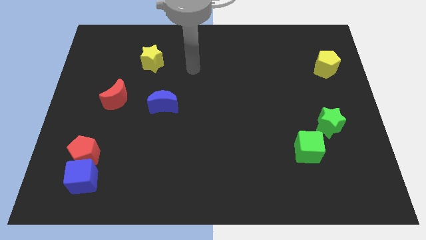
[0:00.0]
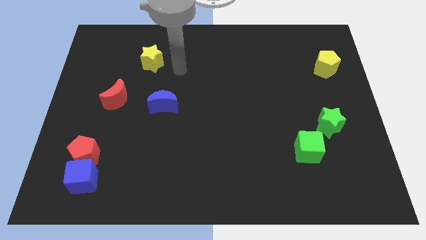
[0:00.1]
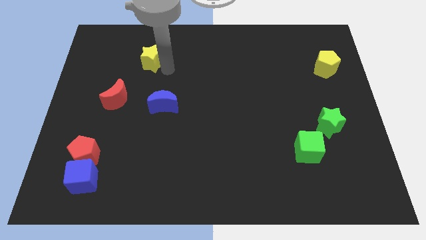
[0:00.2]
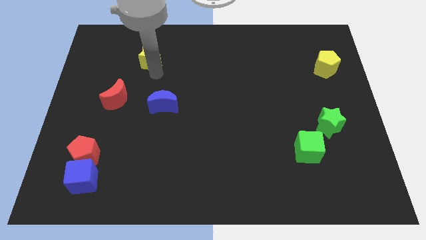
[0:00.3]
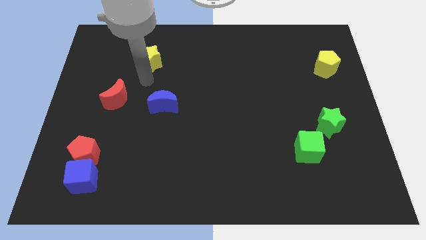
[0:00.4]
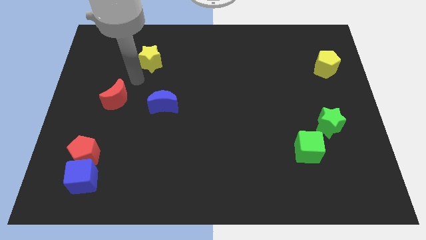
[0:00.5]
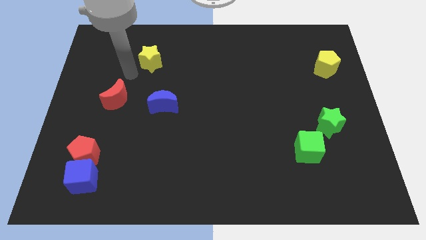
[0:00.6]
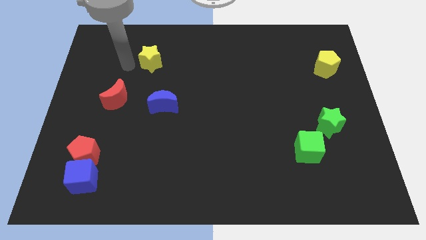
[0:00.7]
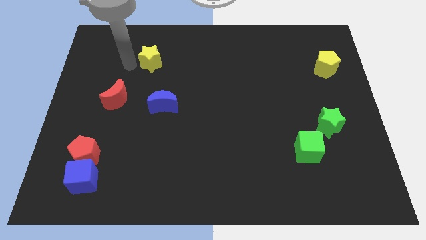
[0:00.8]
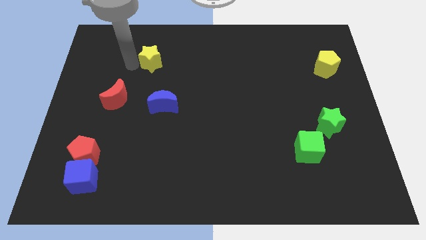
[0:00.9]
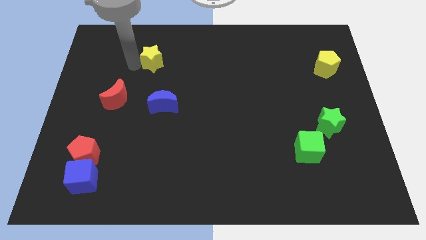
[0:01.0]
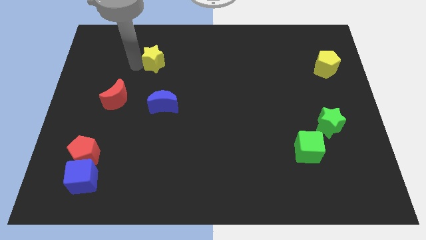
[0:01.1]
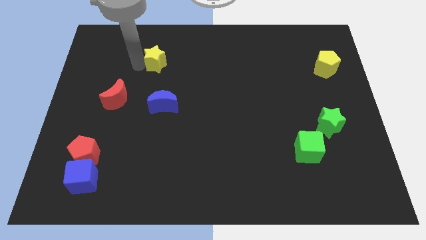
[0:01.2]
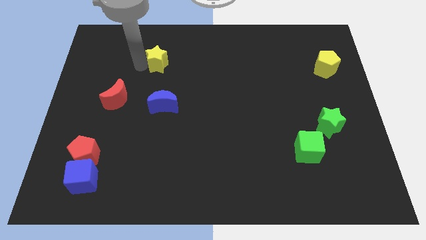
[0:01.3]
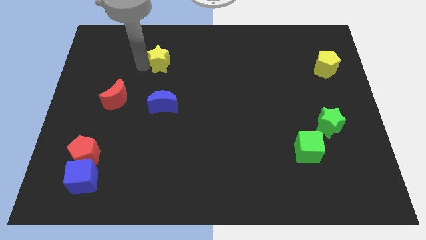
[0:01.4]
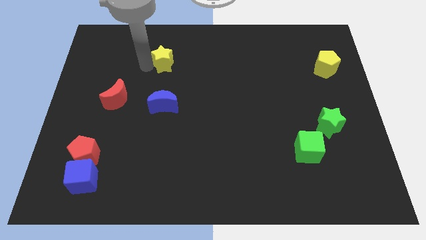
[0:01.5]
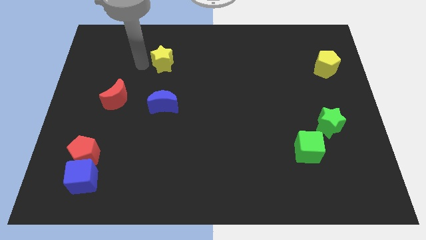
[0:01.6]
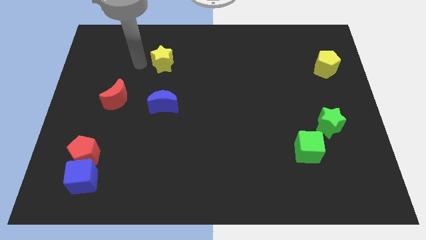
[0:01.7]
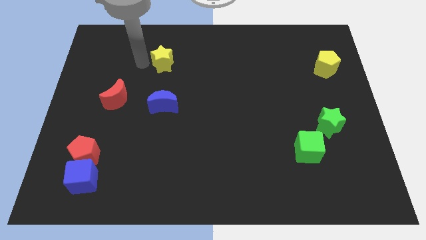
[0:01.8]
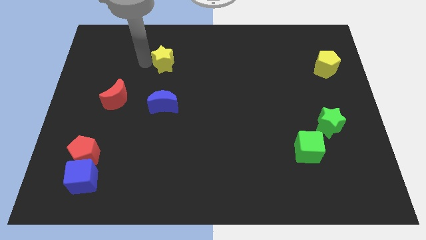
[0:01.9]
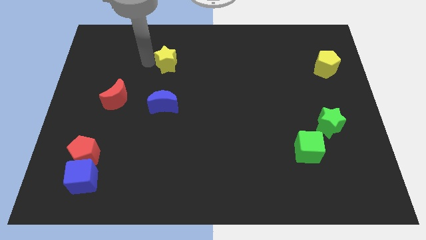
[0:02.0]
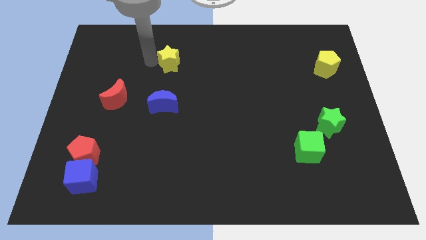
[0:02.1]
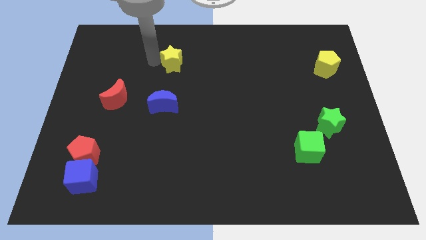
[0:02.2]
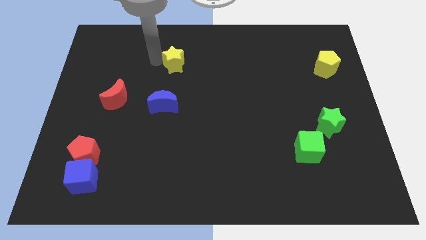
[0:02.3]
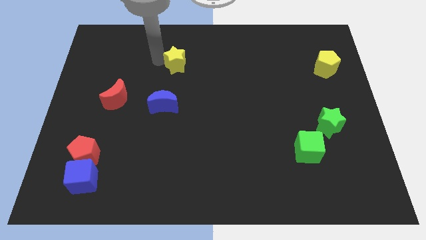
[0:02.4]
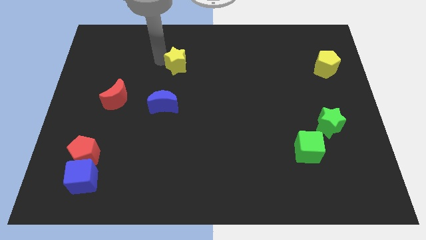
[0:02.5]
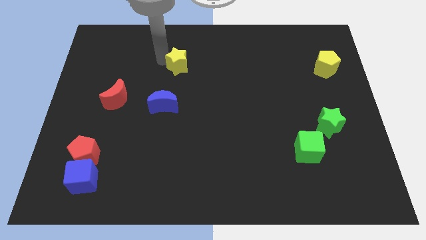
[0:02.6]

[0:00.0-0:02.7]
move the yellow star a bit to the right

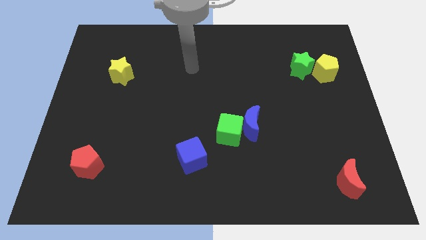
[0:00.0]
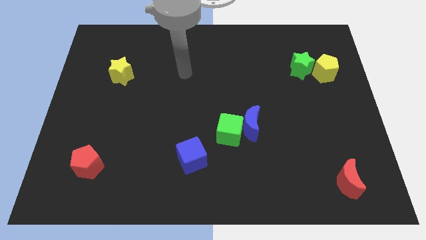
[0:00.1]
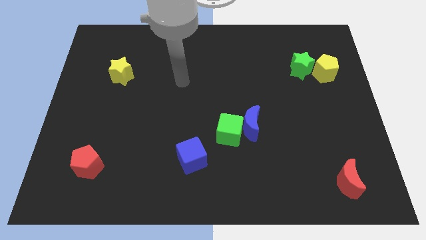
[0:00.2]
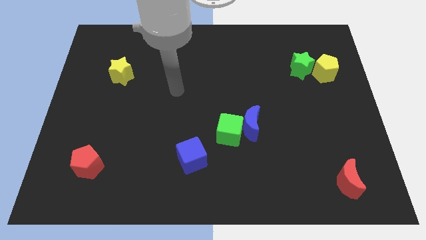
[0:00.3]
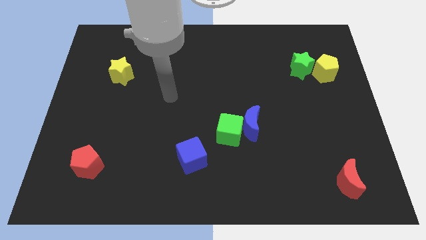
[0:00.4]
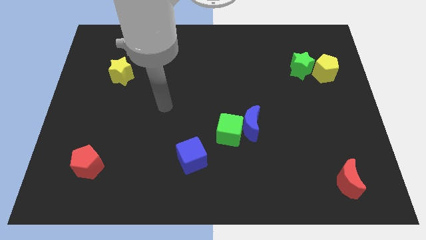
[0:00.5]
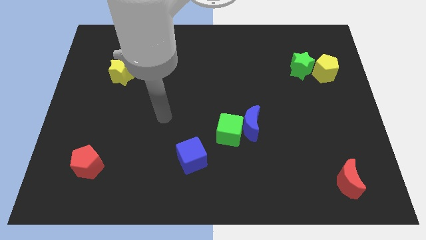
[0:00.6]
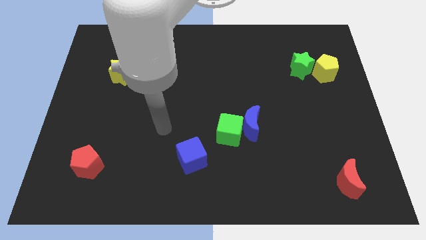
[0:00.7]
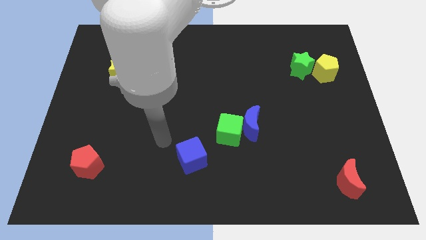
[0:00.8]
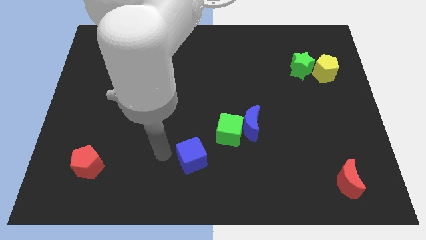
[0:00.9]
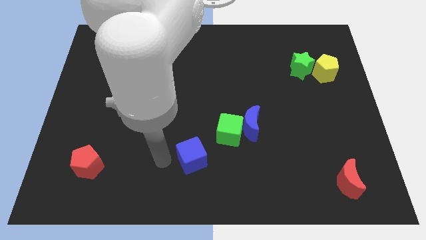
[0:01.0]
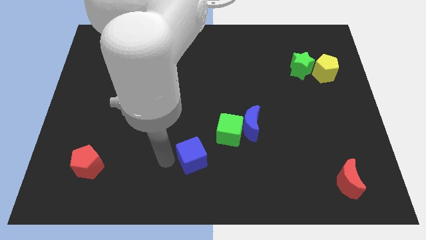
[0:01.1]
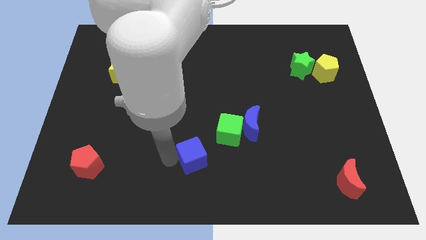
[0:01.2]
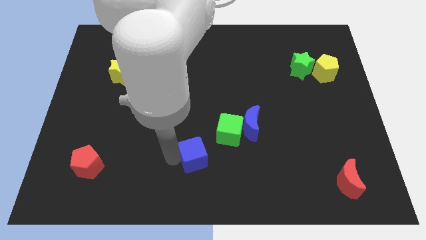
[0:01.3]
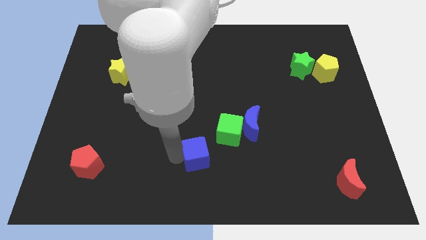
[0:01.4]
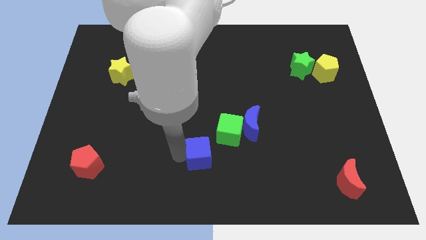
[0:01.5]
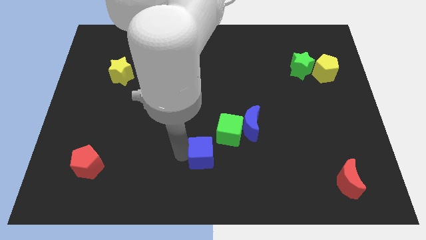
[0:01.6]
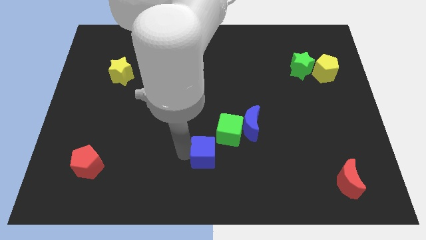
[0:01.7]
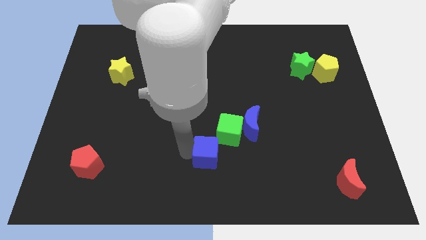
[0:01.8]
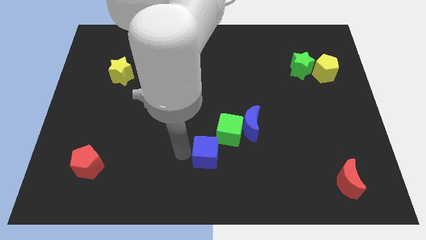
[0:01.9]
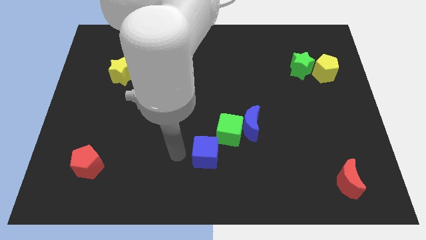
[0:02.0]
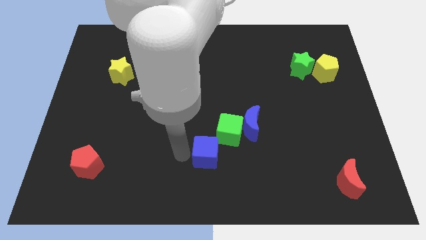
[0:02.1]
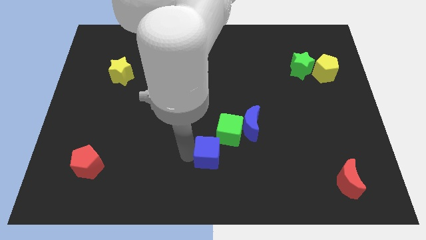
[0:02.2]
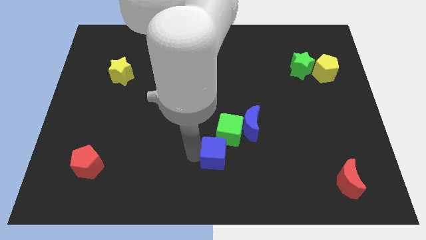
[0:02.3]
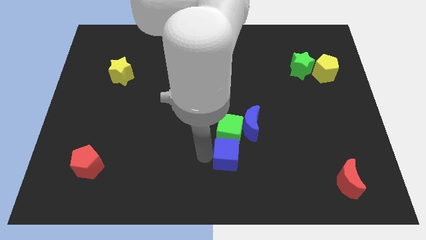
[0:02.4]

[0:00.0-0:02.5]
slide the blue cube a little bit right

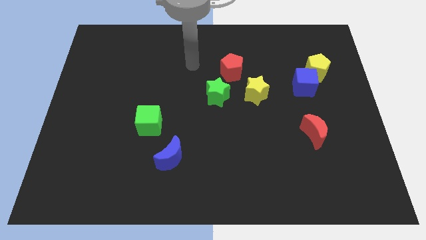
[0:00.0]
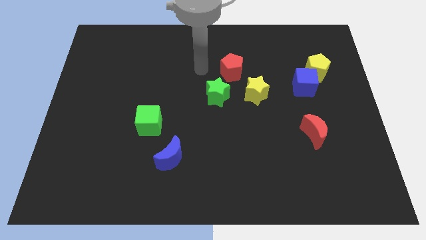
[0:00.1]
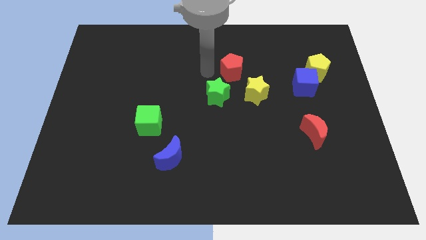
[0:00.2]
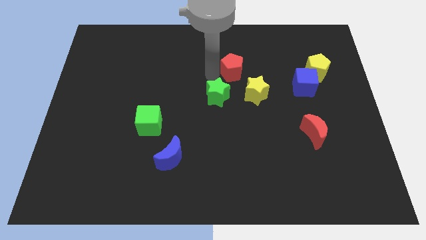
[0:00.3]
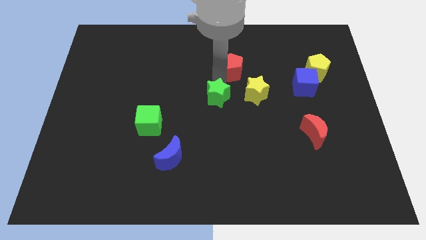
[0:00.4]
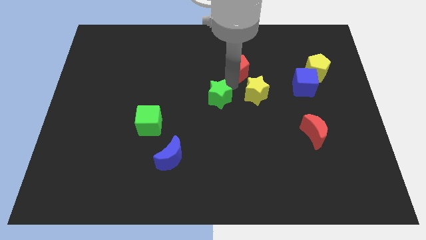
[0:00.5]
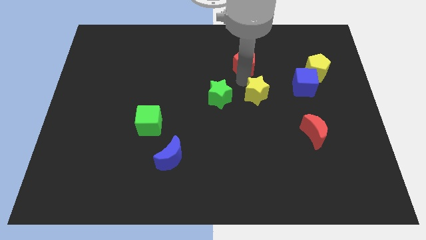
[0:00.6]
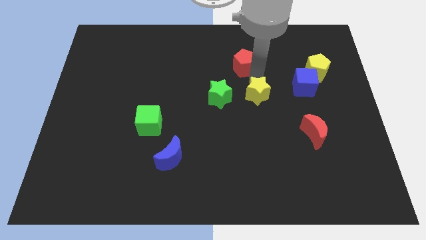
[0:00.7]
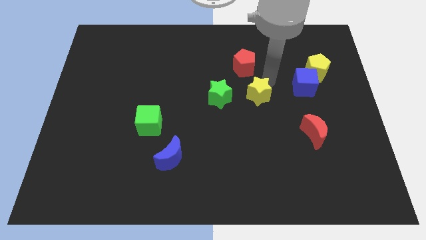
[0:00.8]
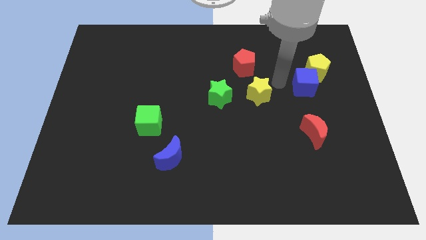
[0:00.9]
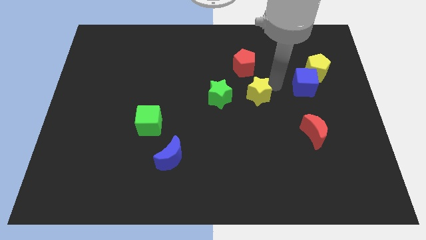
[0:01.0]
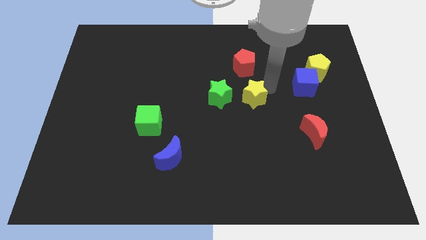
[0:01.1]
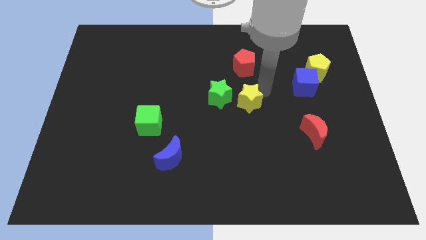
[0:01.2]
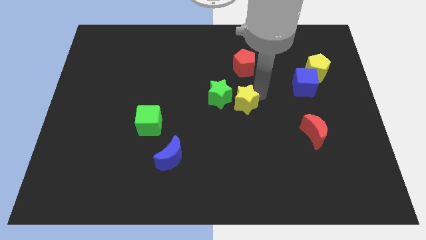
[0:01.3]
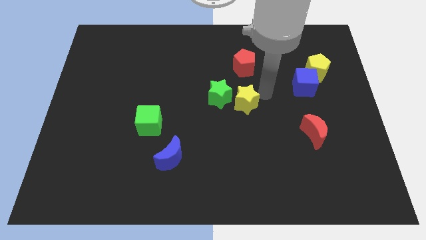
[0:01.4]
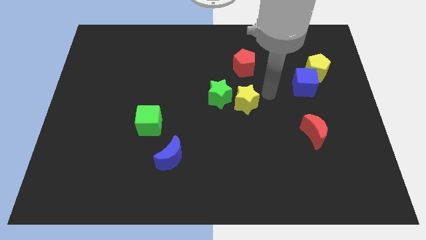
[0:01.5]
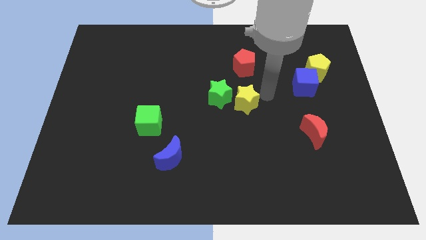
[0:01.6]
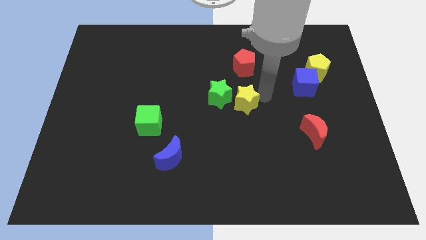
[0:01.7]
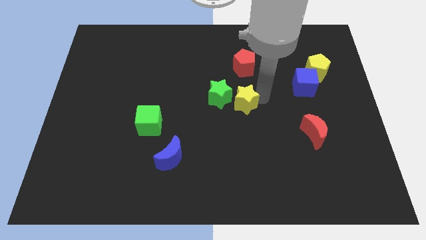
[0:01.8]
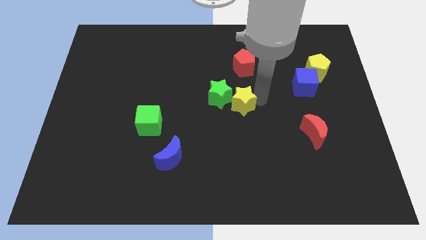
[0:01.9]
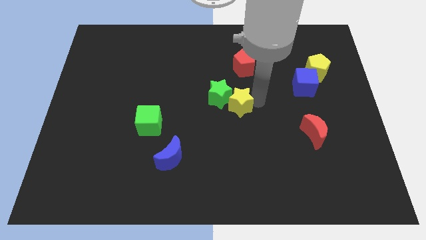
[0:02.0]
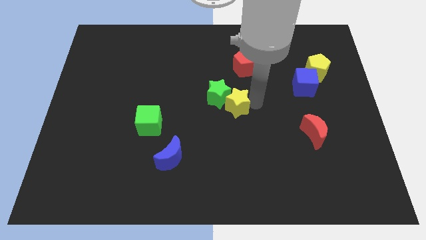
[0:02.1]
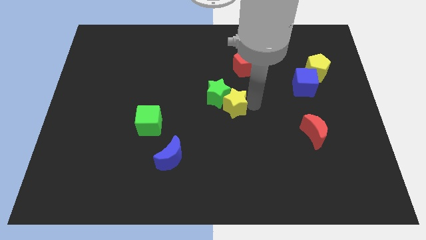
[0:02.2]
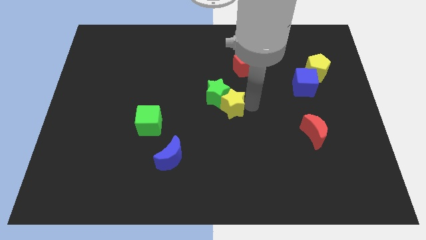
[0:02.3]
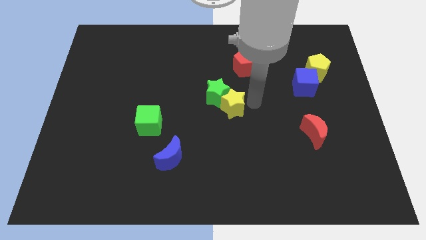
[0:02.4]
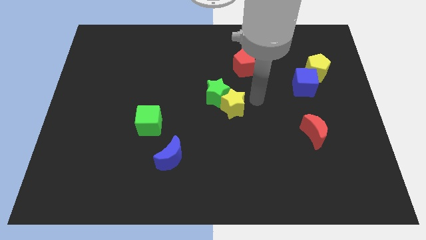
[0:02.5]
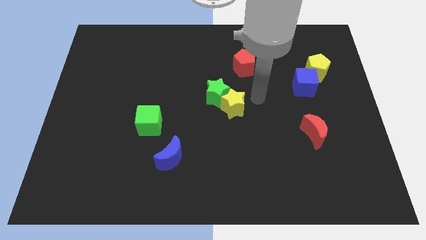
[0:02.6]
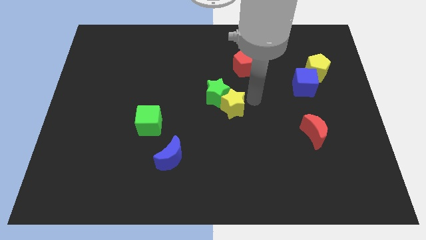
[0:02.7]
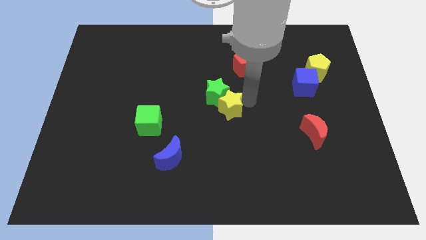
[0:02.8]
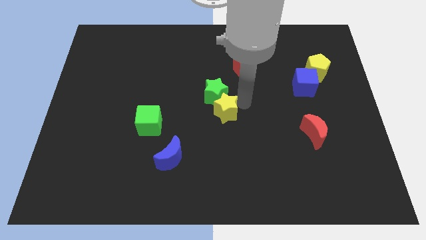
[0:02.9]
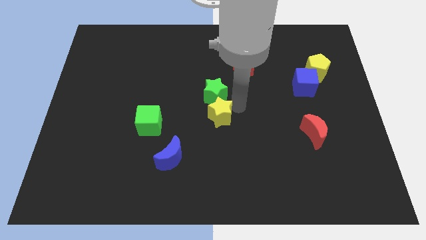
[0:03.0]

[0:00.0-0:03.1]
slightly slide the yellow star left
